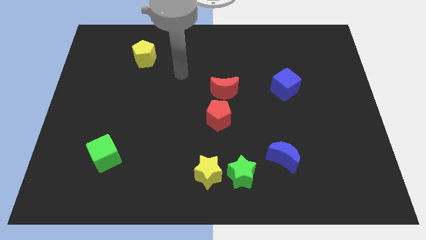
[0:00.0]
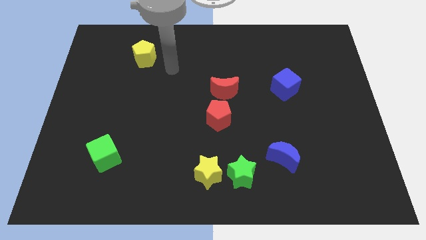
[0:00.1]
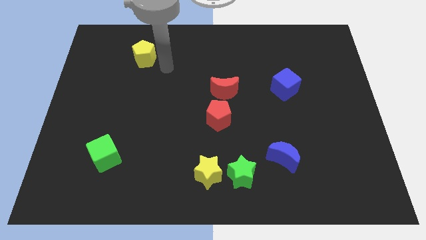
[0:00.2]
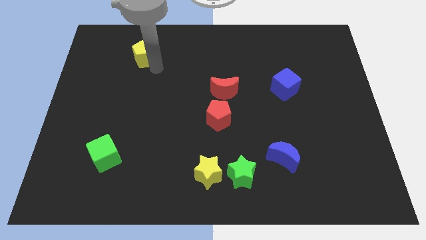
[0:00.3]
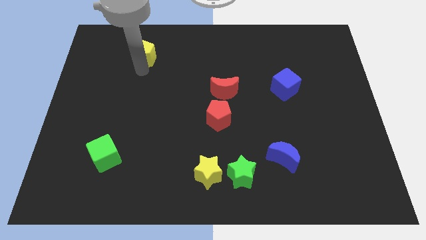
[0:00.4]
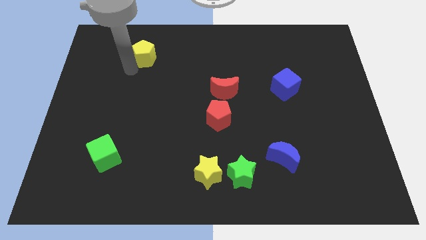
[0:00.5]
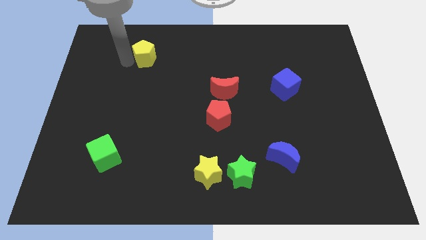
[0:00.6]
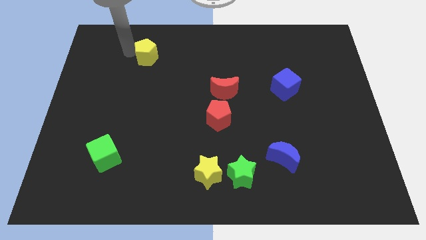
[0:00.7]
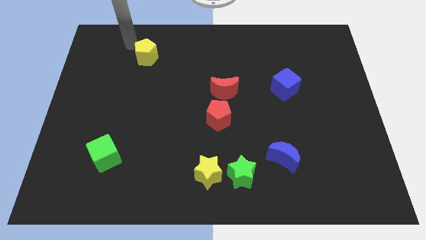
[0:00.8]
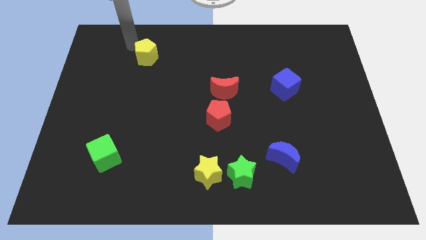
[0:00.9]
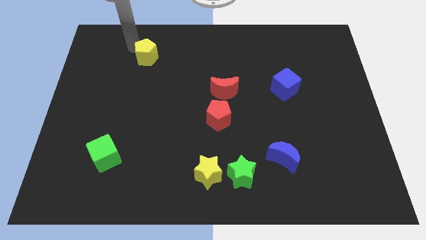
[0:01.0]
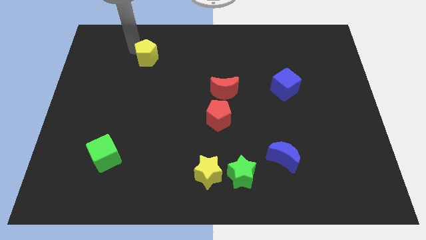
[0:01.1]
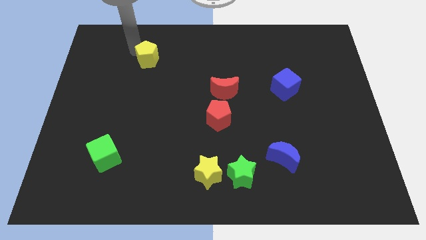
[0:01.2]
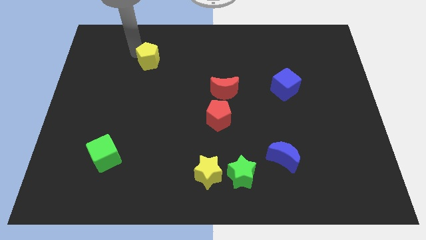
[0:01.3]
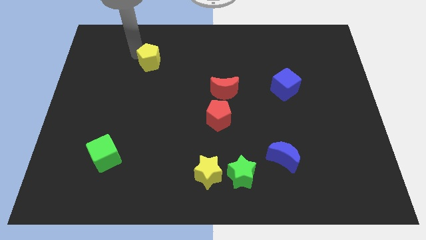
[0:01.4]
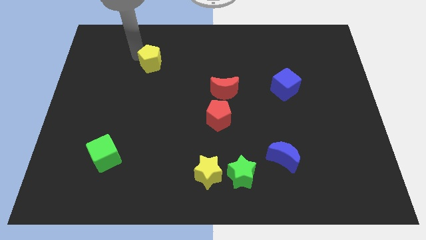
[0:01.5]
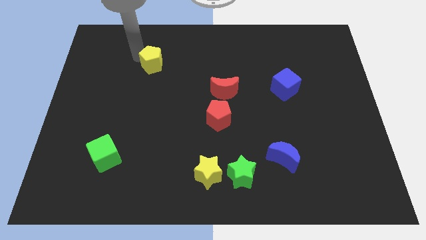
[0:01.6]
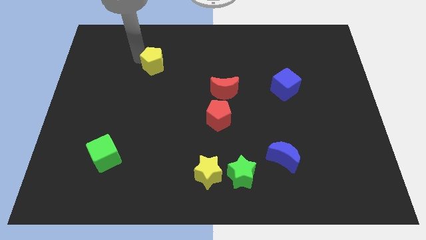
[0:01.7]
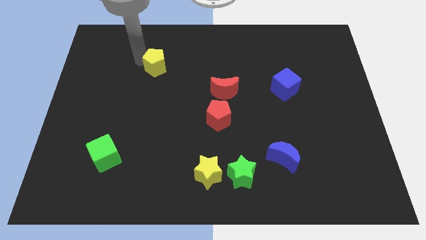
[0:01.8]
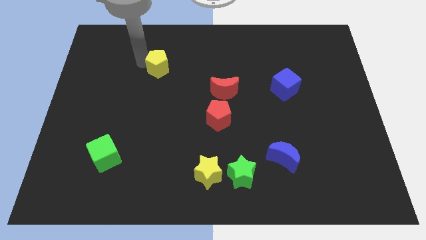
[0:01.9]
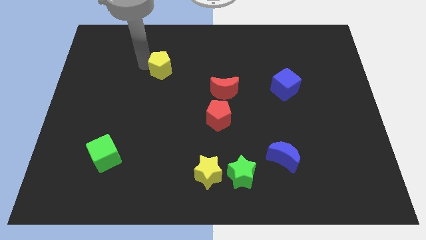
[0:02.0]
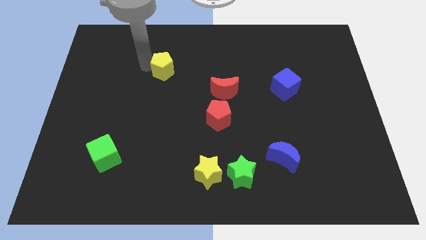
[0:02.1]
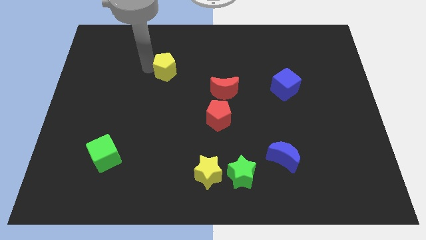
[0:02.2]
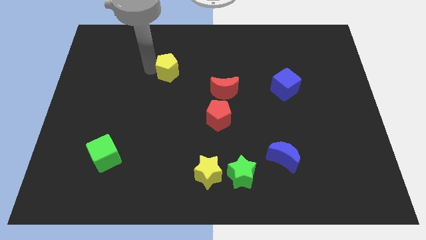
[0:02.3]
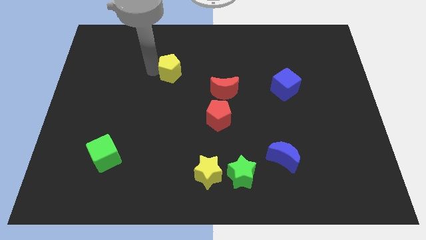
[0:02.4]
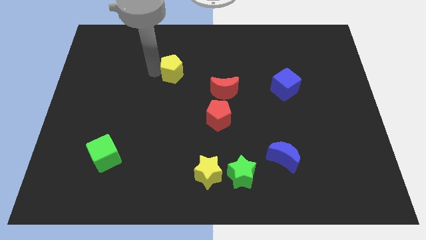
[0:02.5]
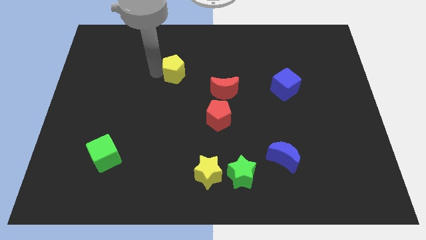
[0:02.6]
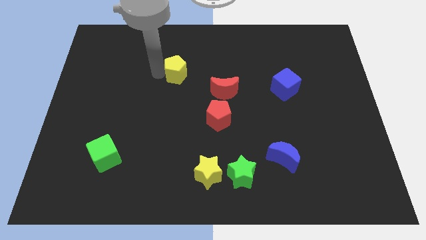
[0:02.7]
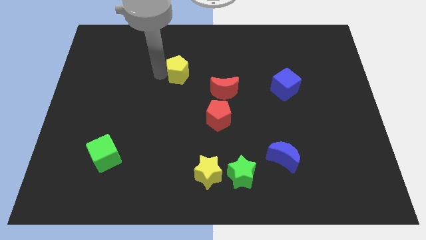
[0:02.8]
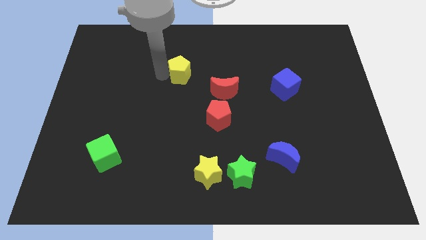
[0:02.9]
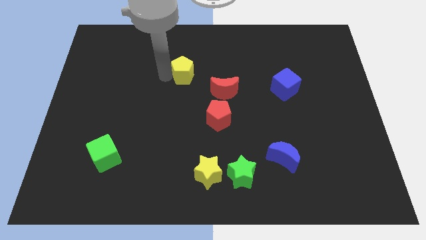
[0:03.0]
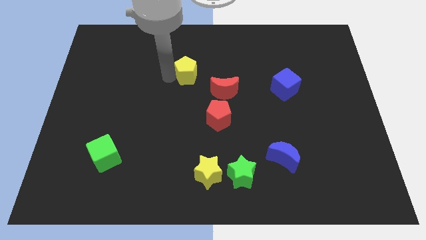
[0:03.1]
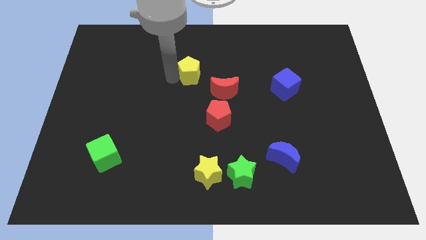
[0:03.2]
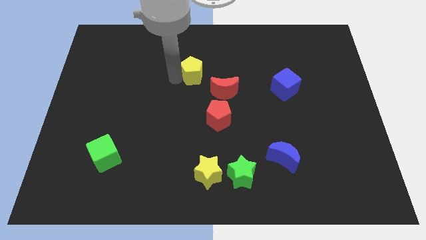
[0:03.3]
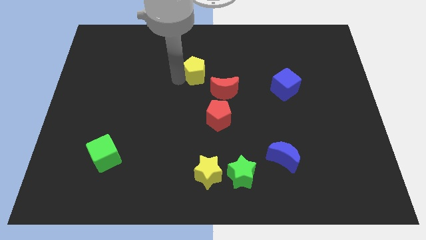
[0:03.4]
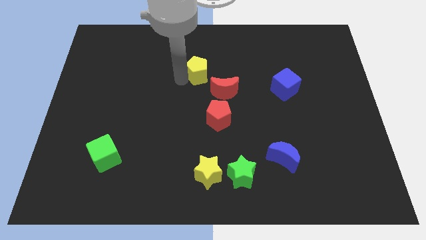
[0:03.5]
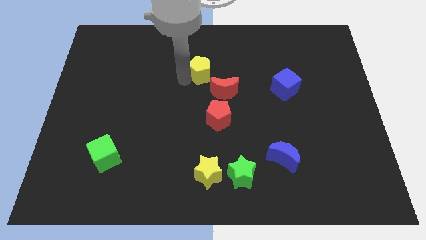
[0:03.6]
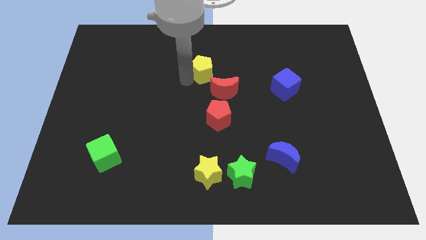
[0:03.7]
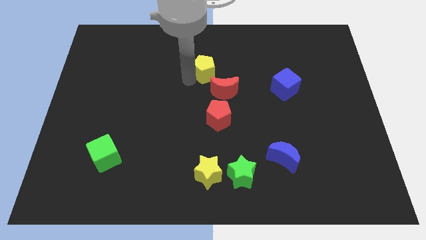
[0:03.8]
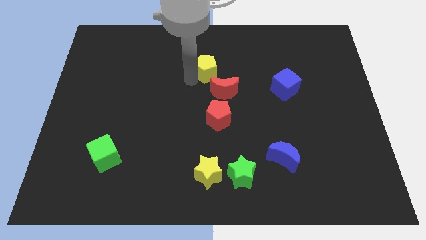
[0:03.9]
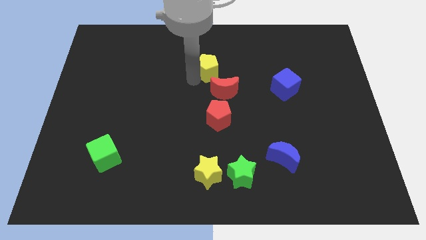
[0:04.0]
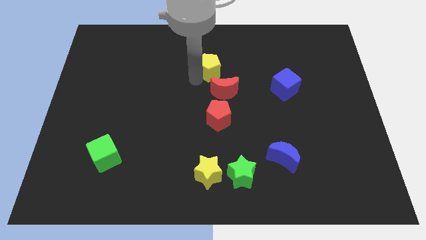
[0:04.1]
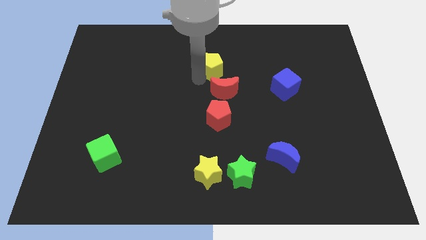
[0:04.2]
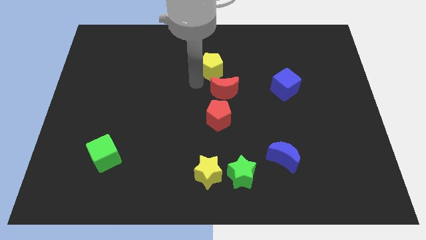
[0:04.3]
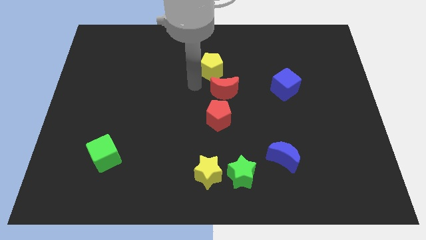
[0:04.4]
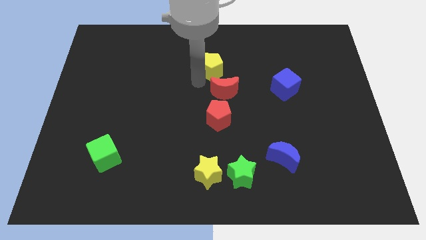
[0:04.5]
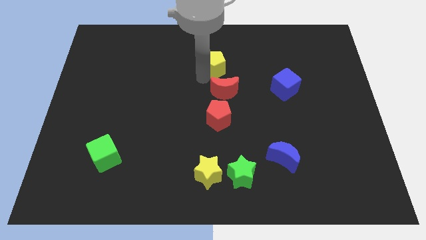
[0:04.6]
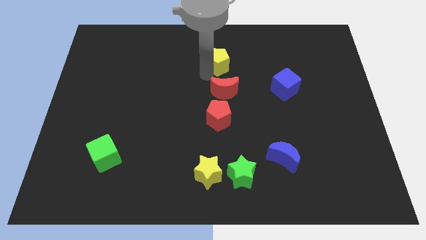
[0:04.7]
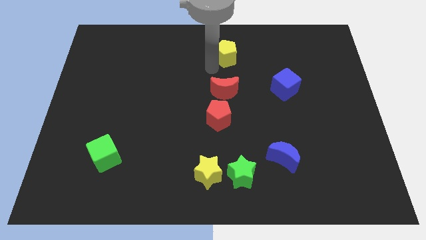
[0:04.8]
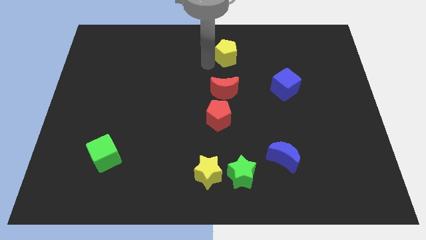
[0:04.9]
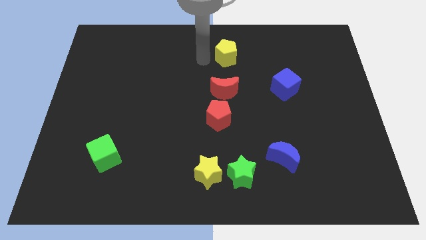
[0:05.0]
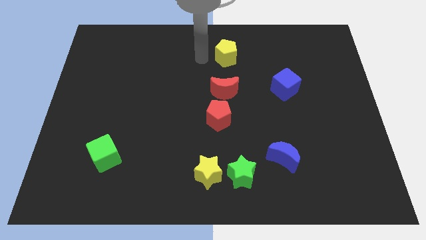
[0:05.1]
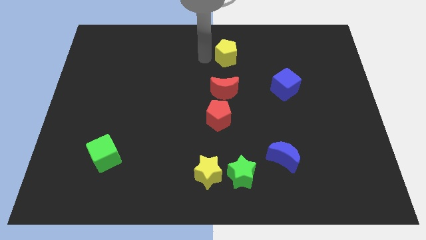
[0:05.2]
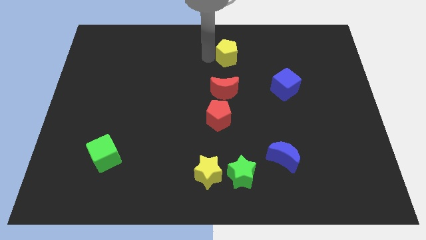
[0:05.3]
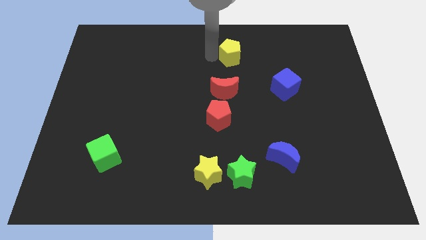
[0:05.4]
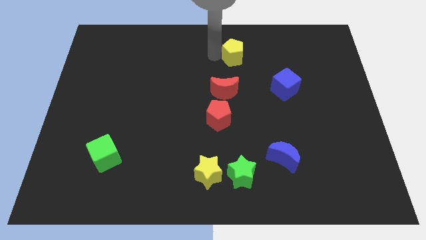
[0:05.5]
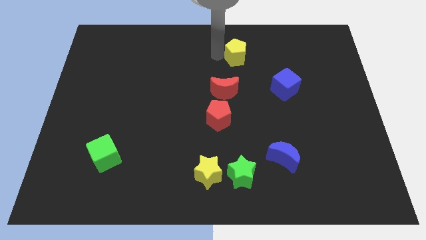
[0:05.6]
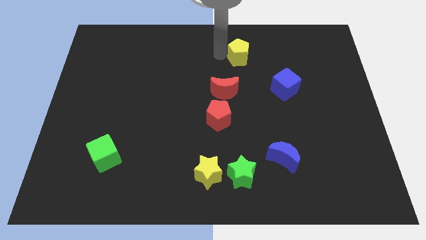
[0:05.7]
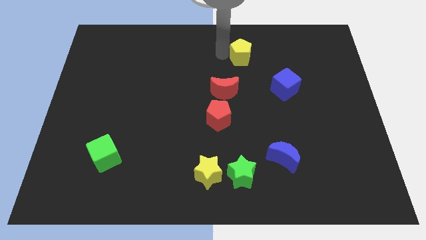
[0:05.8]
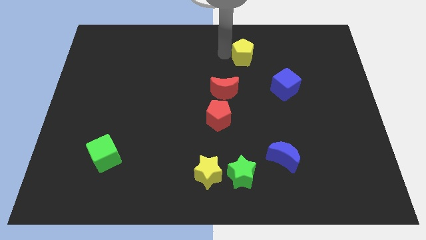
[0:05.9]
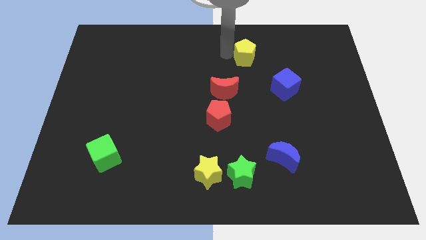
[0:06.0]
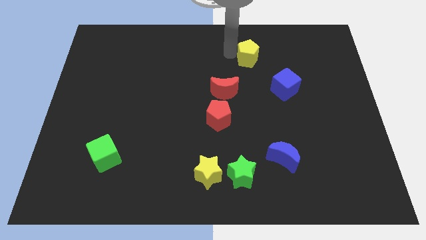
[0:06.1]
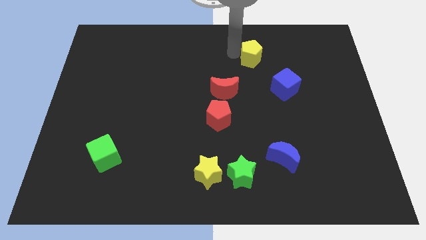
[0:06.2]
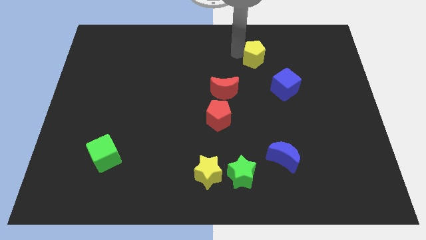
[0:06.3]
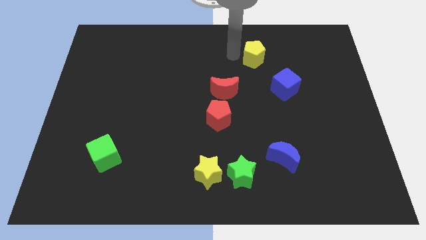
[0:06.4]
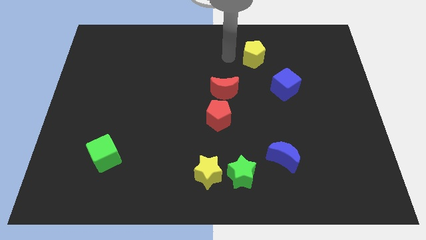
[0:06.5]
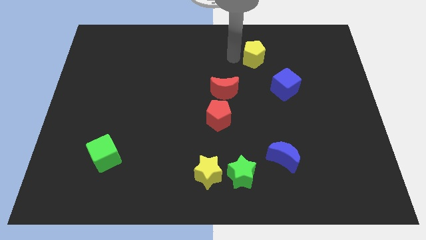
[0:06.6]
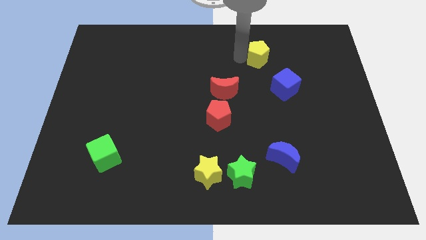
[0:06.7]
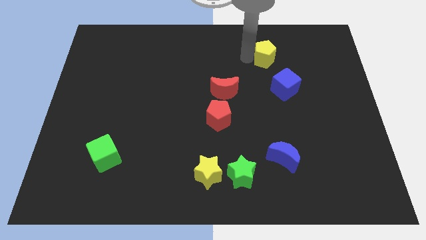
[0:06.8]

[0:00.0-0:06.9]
slide the yellow pentagon above the blue cube
